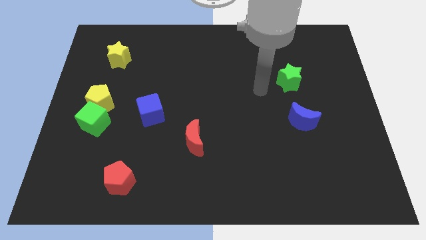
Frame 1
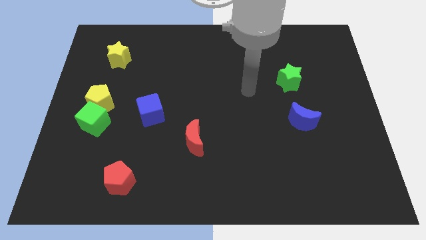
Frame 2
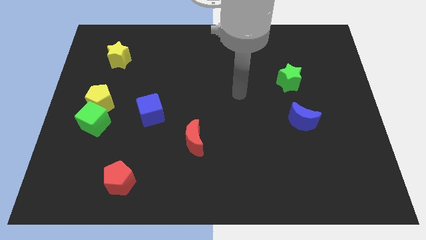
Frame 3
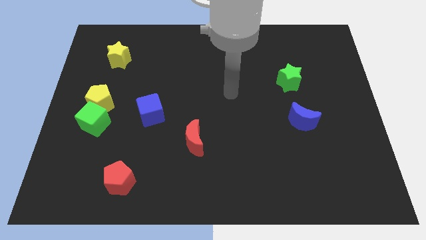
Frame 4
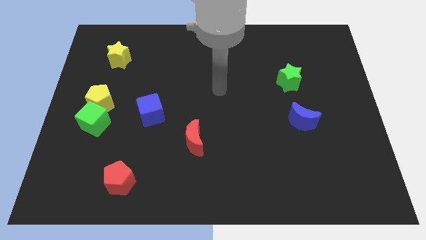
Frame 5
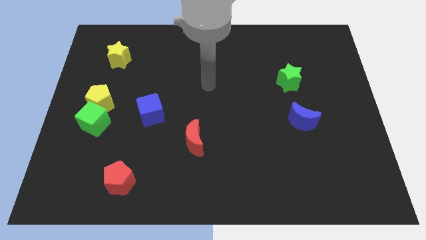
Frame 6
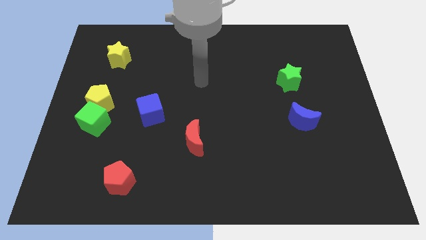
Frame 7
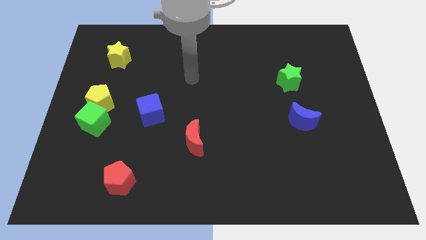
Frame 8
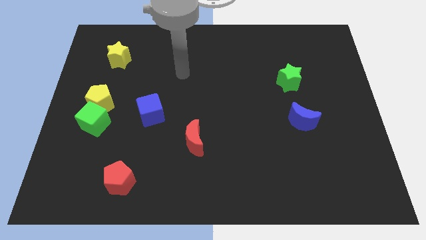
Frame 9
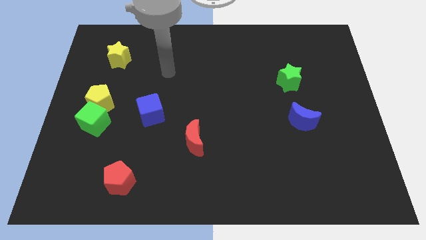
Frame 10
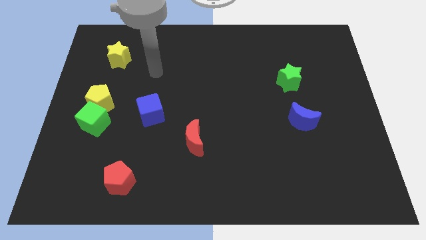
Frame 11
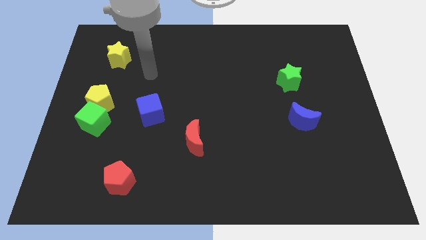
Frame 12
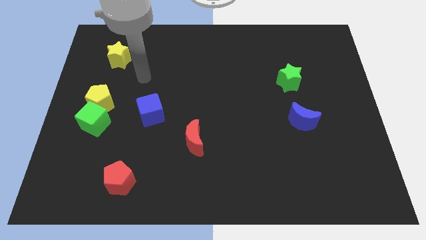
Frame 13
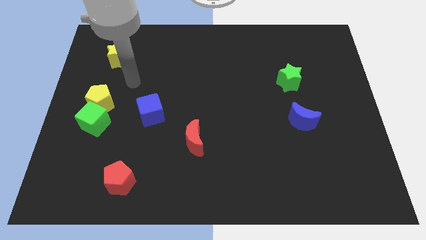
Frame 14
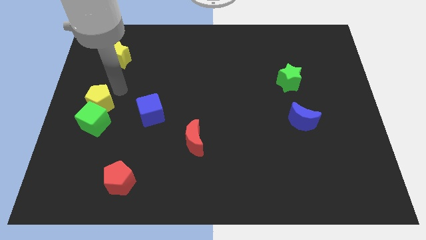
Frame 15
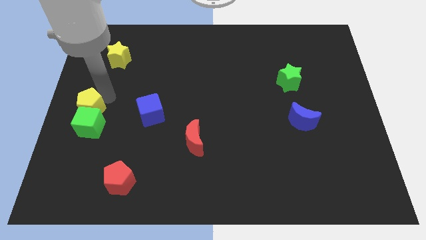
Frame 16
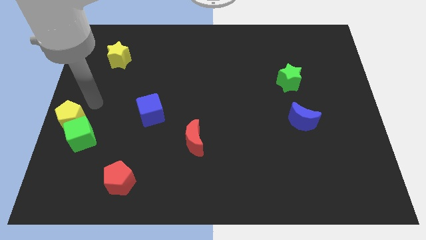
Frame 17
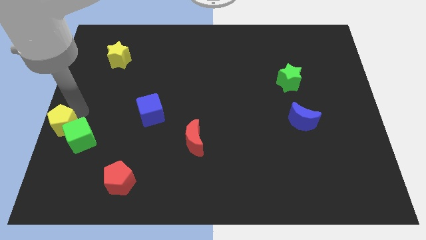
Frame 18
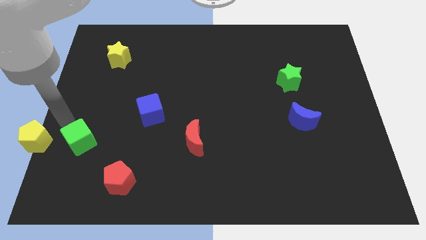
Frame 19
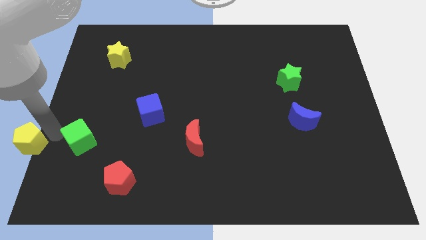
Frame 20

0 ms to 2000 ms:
pull the green cube apart from the yellow pentagon

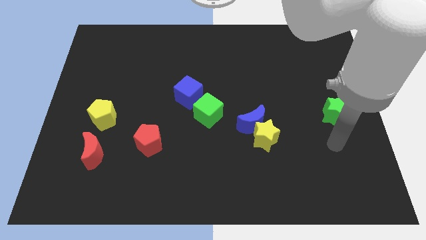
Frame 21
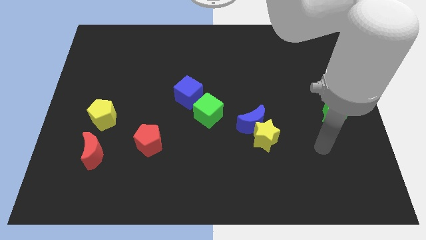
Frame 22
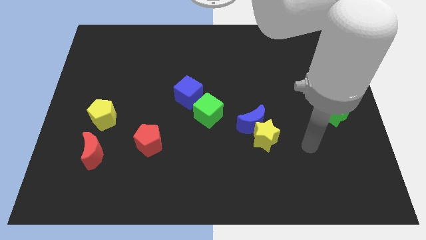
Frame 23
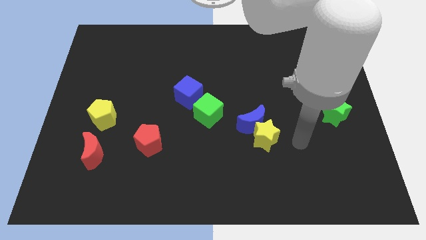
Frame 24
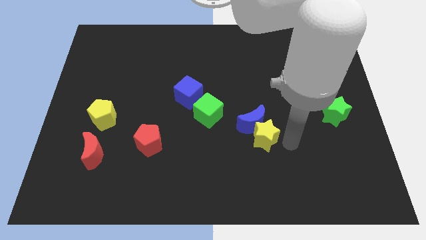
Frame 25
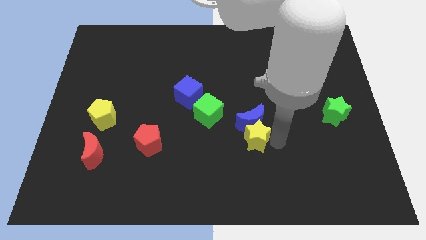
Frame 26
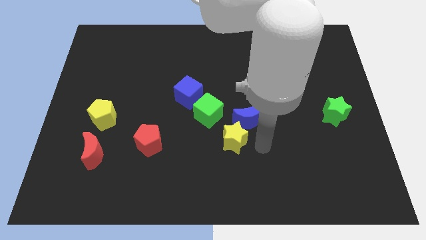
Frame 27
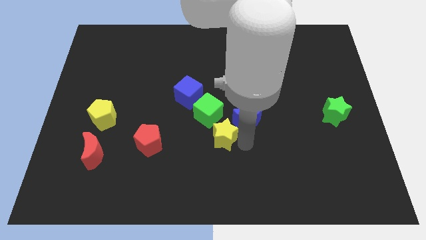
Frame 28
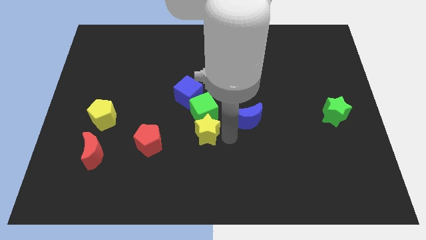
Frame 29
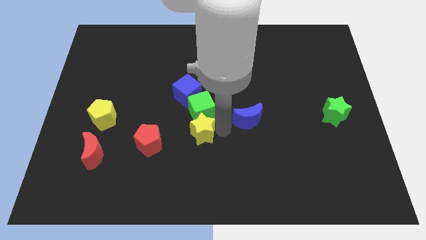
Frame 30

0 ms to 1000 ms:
move the blue moon away from the yellow star

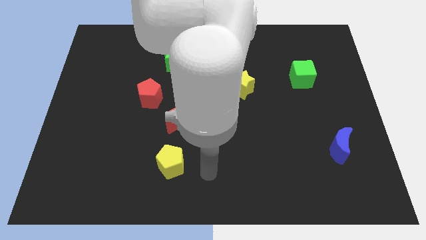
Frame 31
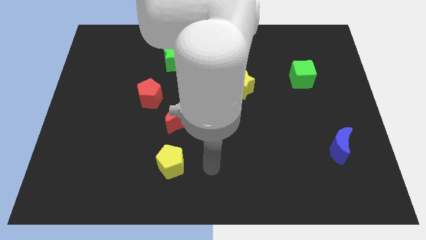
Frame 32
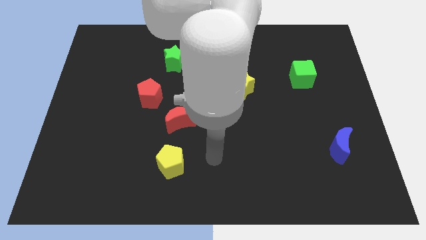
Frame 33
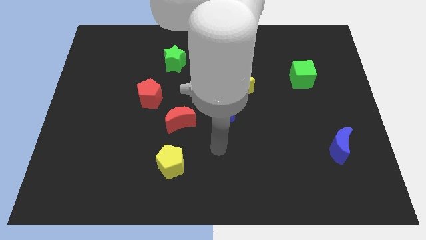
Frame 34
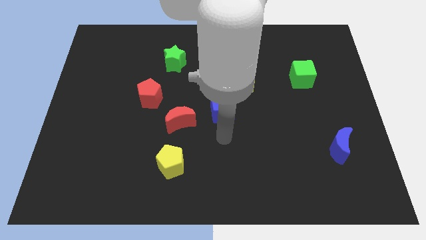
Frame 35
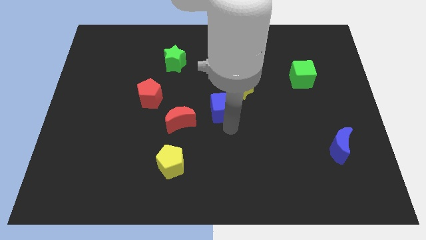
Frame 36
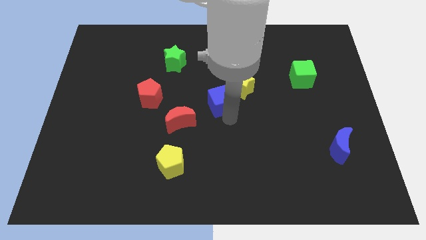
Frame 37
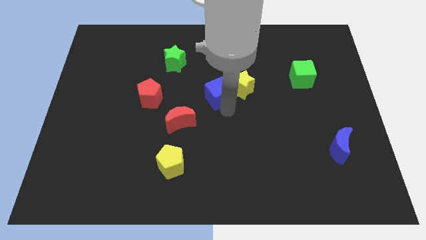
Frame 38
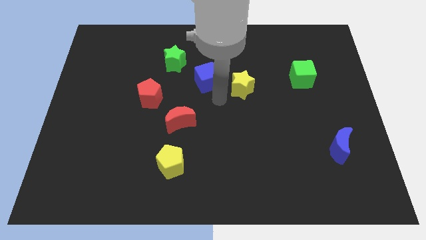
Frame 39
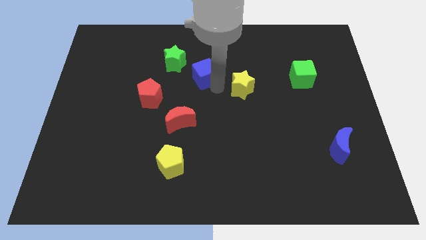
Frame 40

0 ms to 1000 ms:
move the yellow star away from the blue cube

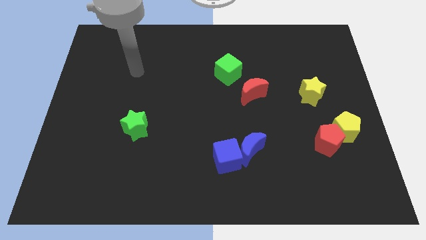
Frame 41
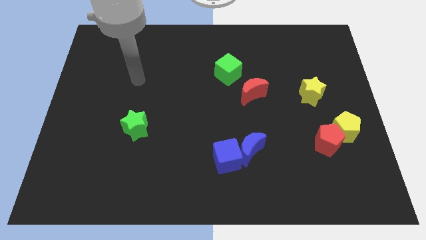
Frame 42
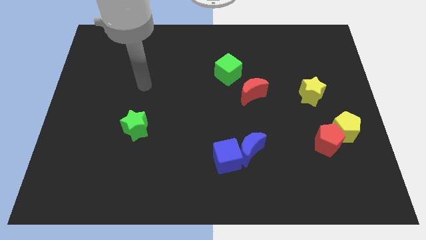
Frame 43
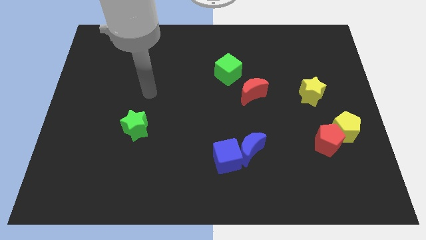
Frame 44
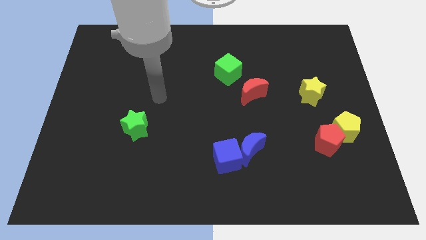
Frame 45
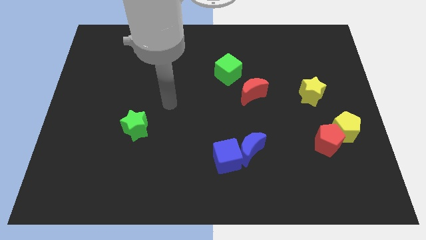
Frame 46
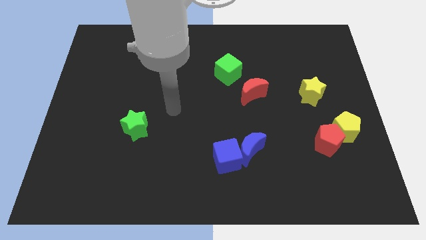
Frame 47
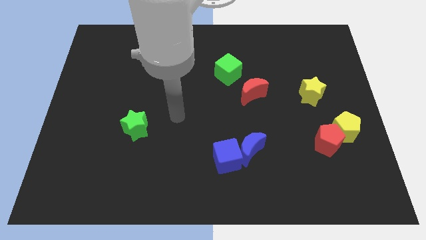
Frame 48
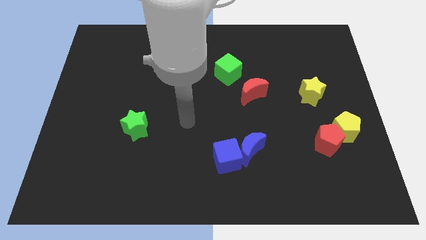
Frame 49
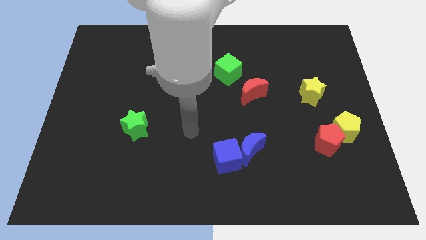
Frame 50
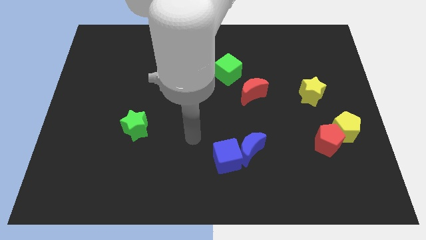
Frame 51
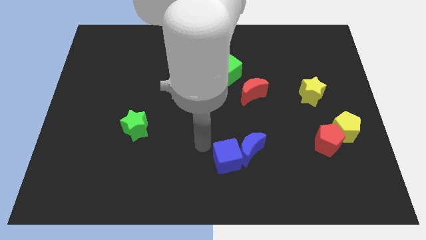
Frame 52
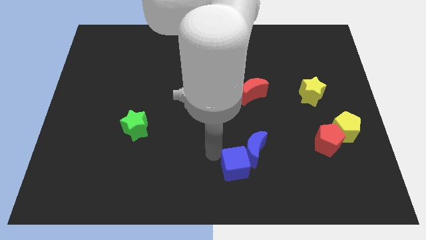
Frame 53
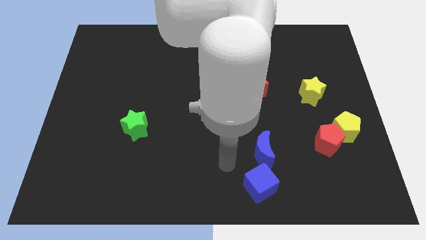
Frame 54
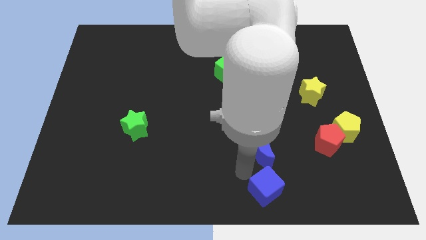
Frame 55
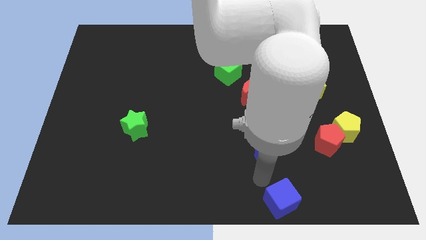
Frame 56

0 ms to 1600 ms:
pull the blue moon apart from the blue cube

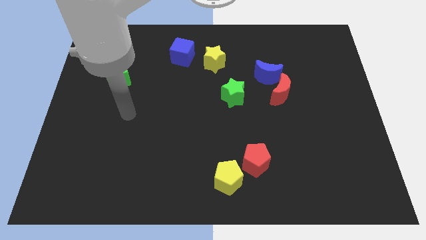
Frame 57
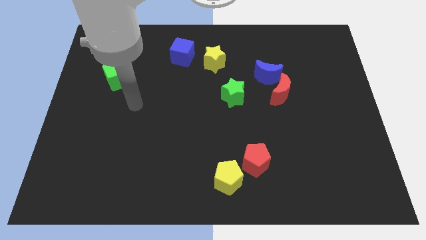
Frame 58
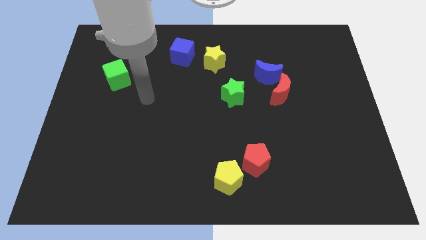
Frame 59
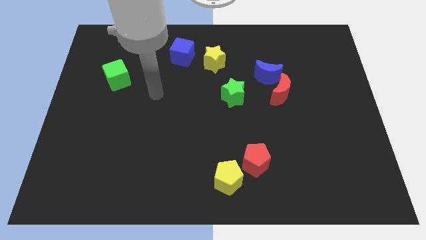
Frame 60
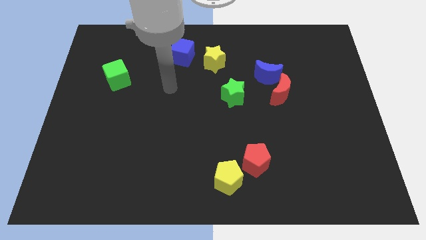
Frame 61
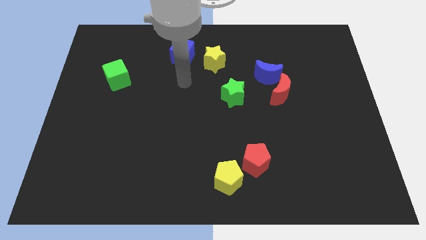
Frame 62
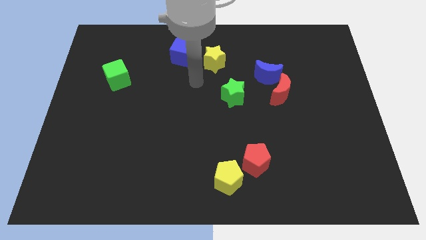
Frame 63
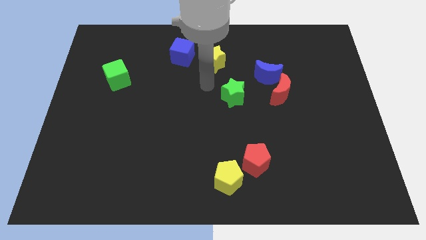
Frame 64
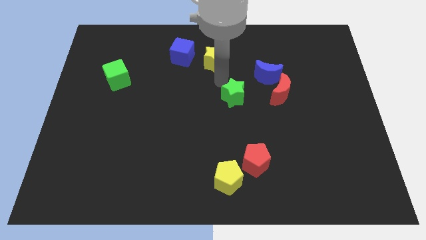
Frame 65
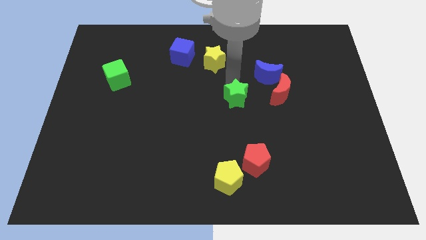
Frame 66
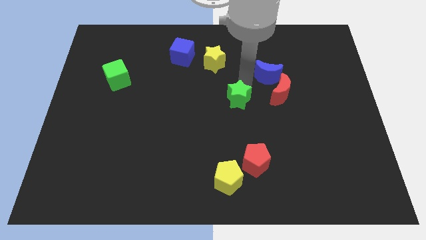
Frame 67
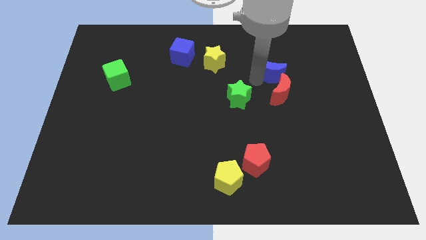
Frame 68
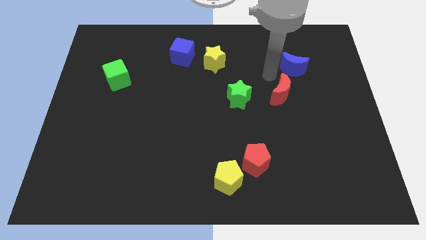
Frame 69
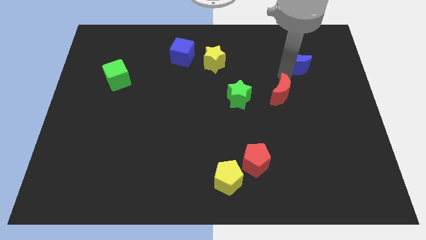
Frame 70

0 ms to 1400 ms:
separate the red moon from the blue moon

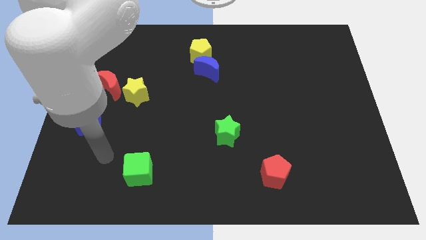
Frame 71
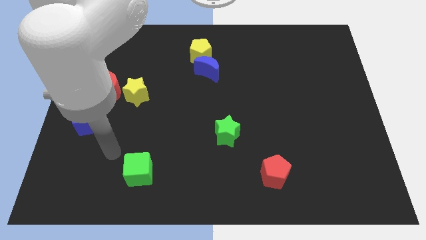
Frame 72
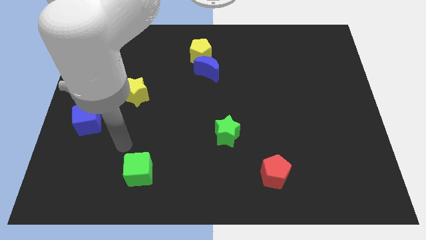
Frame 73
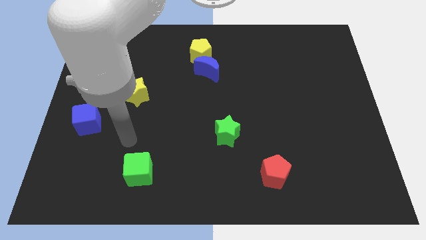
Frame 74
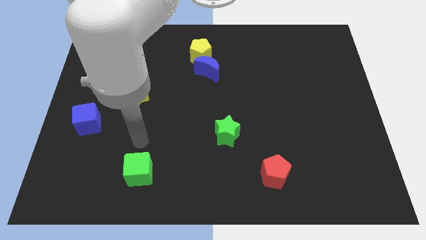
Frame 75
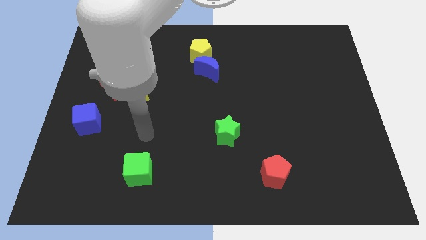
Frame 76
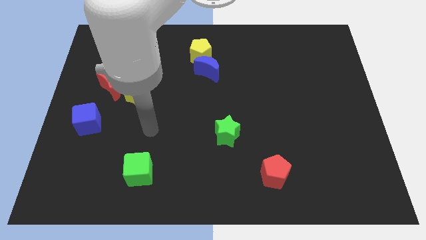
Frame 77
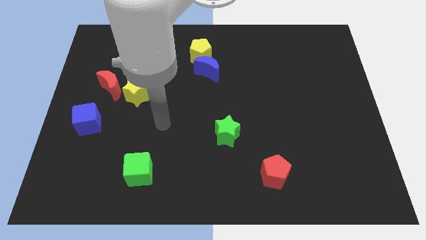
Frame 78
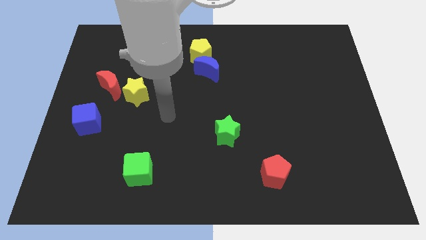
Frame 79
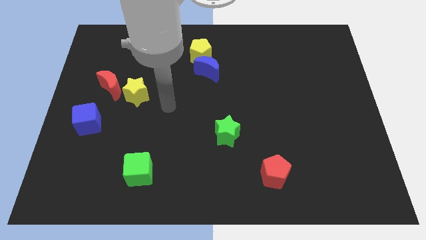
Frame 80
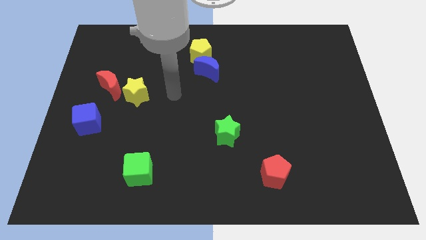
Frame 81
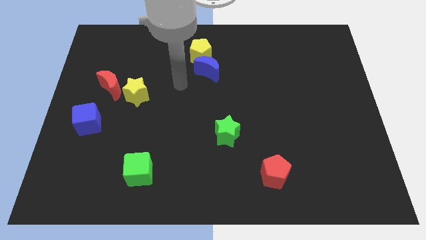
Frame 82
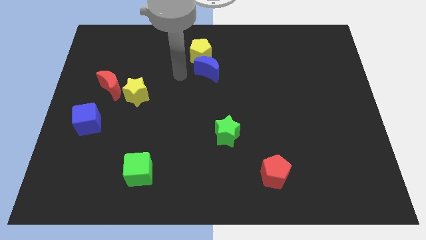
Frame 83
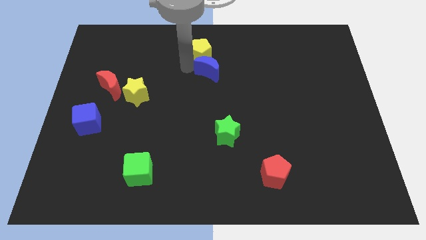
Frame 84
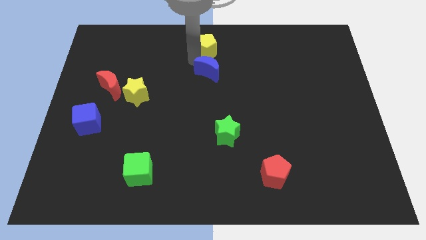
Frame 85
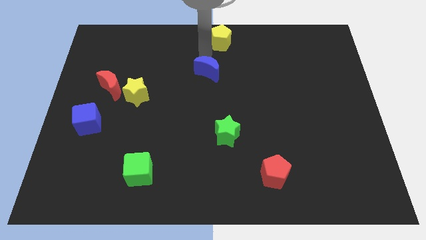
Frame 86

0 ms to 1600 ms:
move the blue moon away from the yellow pentagon

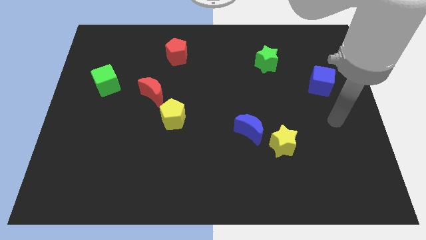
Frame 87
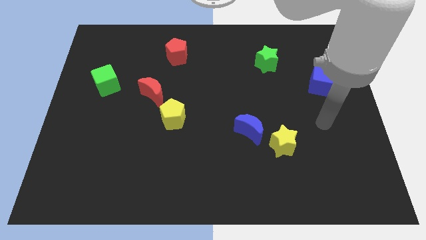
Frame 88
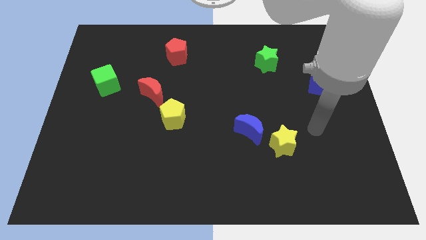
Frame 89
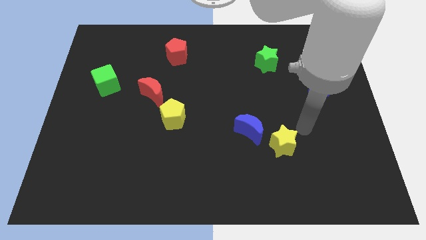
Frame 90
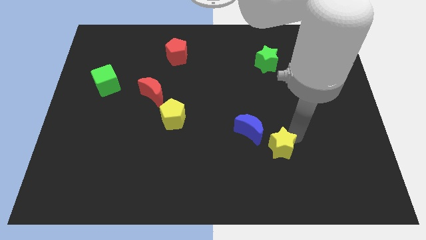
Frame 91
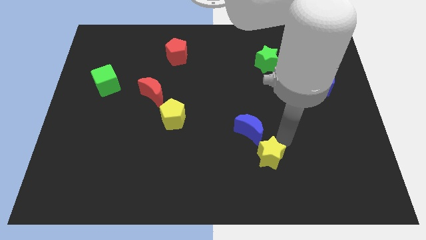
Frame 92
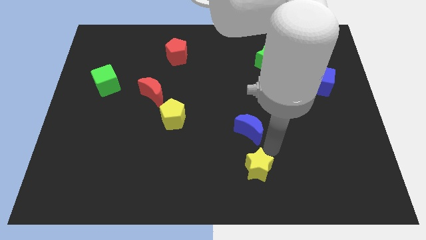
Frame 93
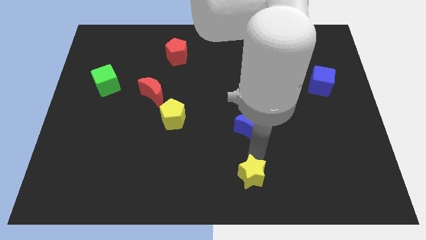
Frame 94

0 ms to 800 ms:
pull the blue moon apart from the yellow star
